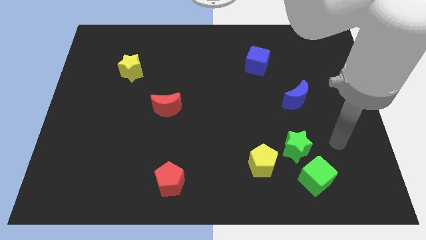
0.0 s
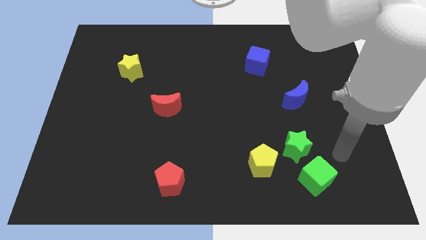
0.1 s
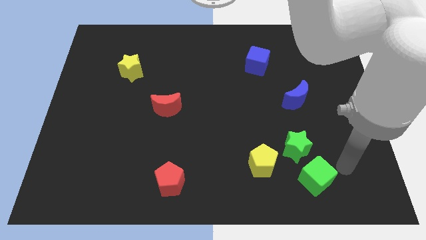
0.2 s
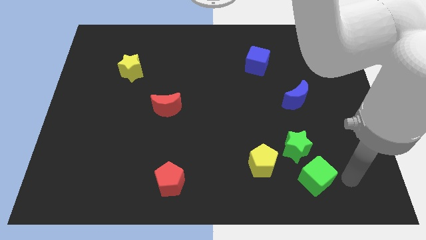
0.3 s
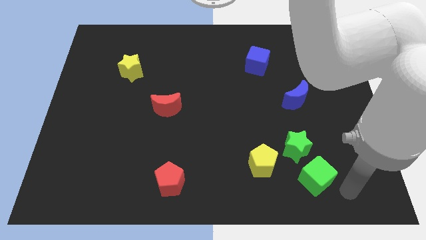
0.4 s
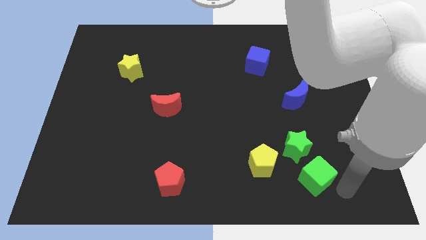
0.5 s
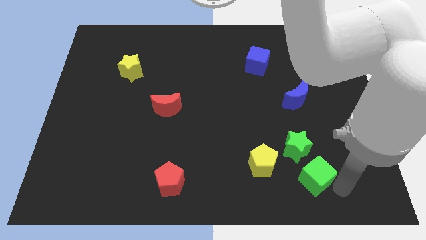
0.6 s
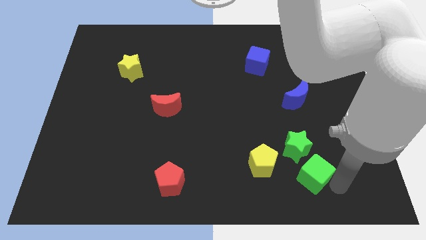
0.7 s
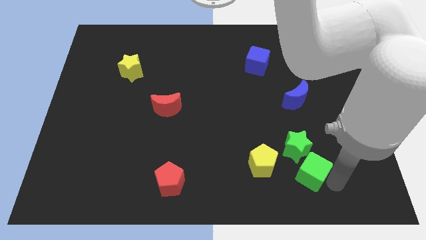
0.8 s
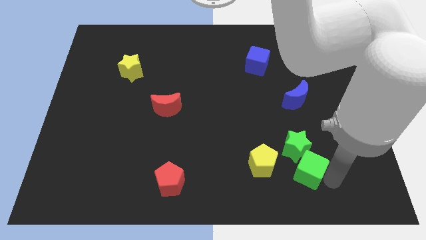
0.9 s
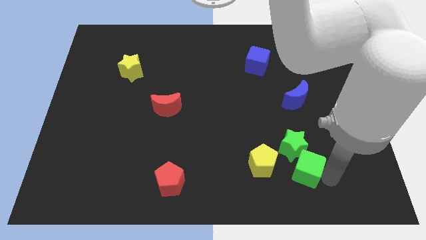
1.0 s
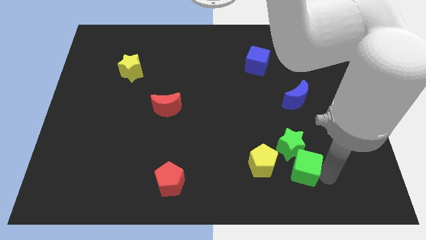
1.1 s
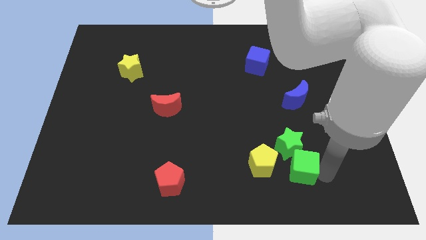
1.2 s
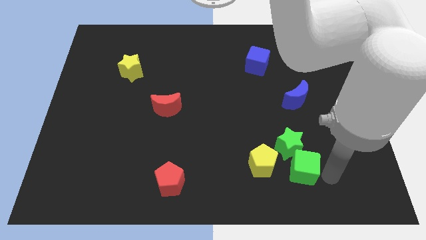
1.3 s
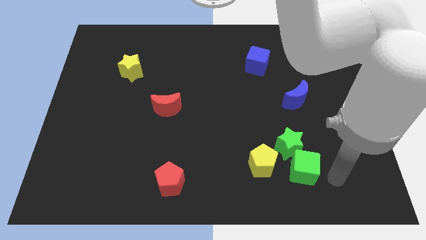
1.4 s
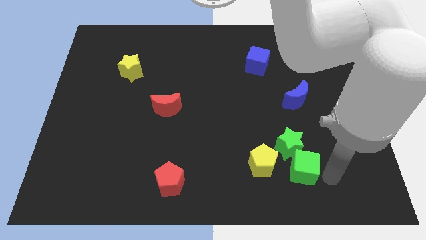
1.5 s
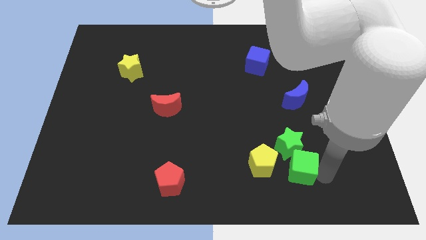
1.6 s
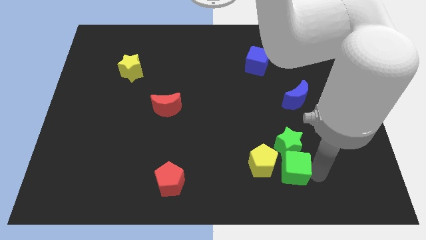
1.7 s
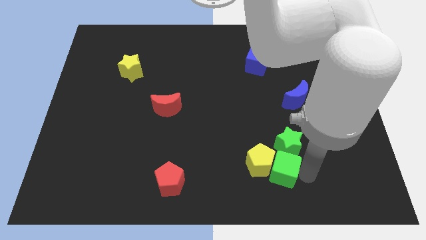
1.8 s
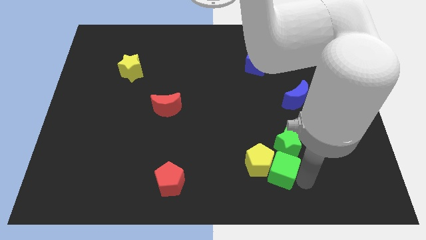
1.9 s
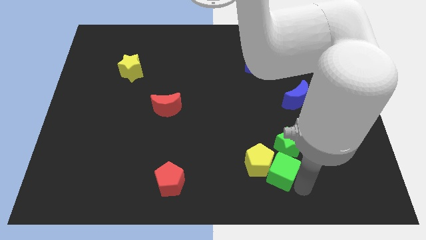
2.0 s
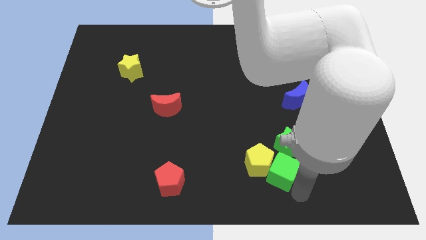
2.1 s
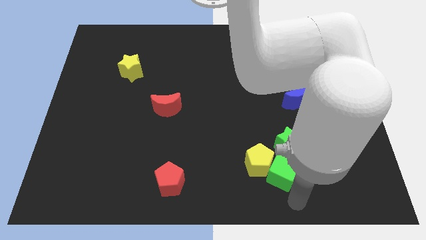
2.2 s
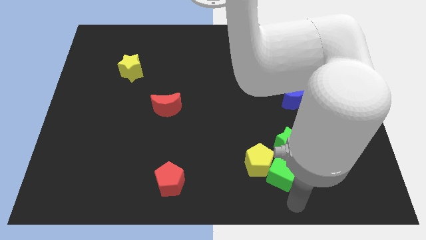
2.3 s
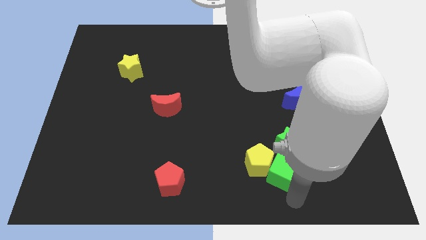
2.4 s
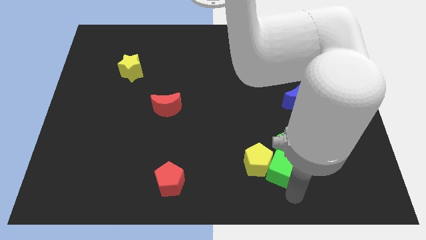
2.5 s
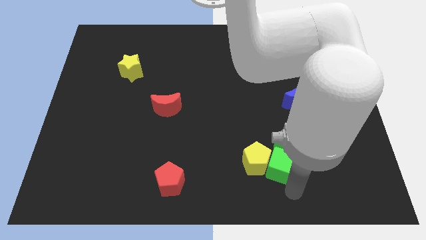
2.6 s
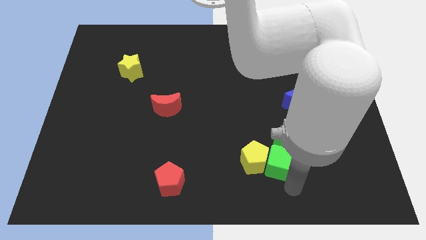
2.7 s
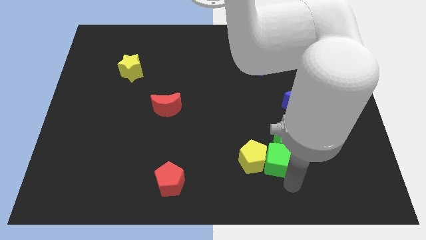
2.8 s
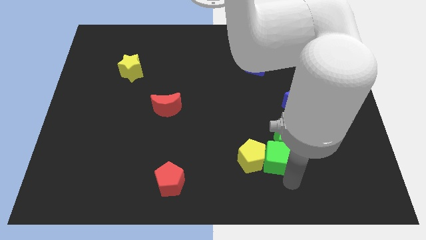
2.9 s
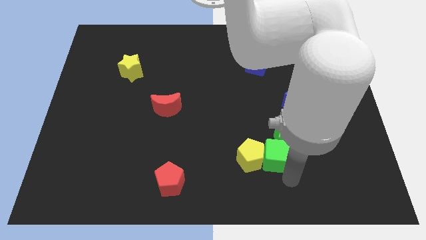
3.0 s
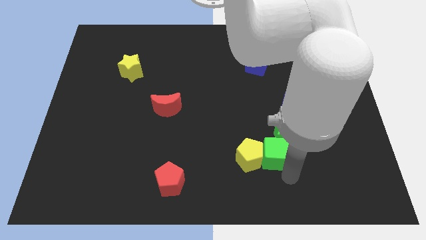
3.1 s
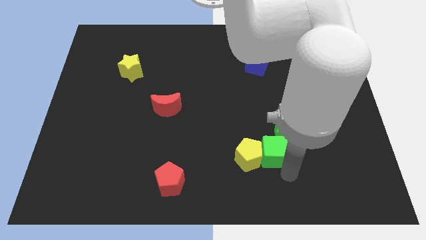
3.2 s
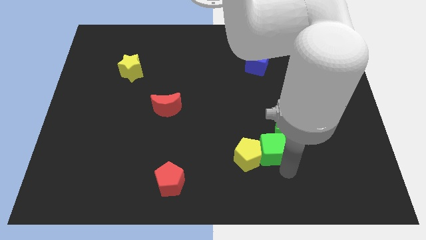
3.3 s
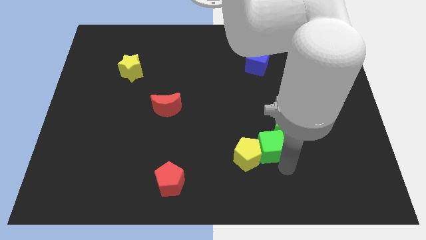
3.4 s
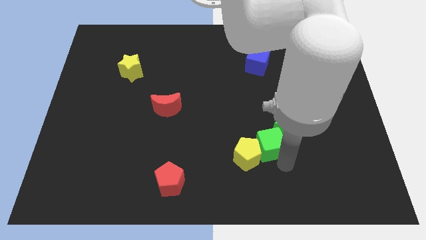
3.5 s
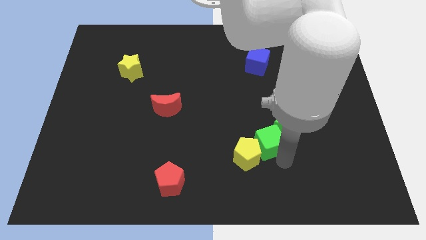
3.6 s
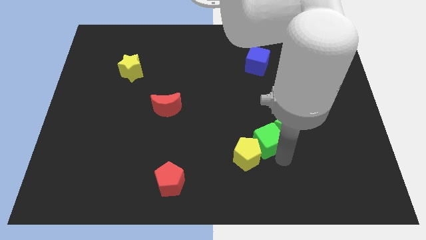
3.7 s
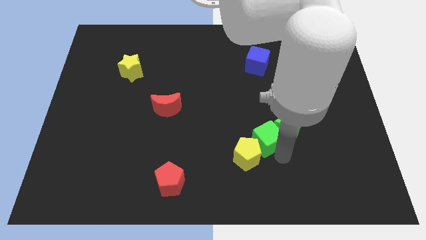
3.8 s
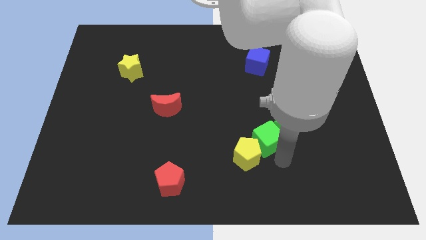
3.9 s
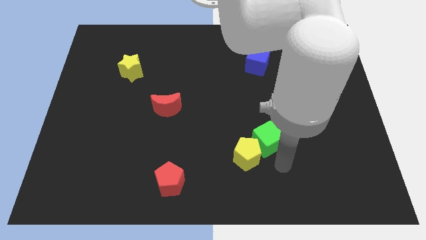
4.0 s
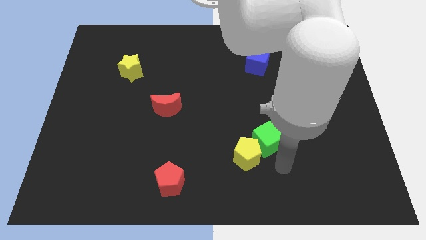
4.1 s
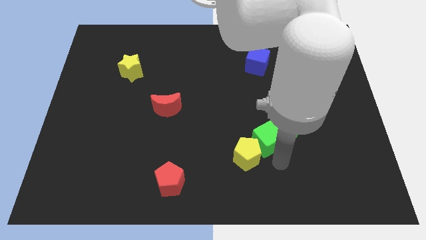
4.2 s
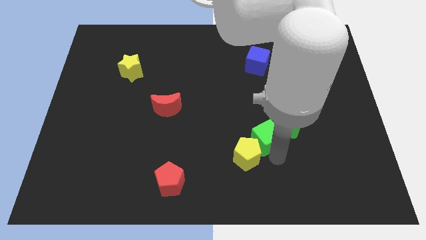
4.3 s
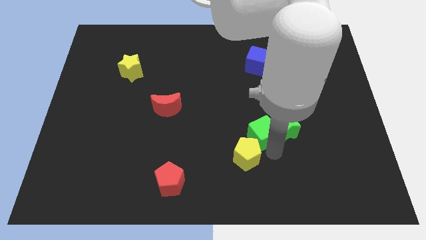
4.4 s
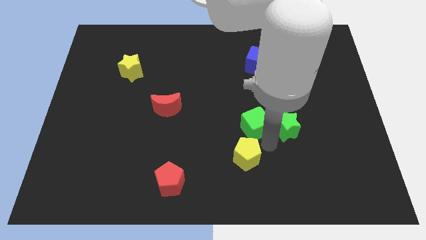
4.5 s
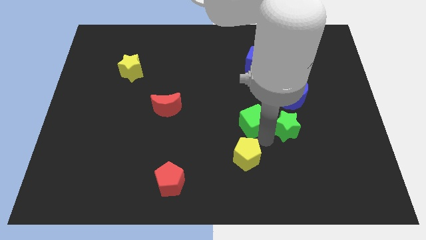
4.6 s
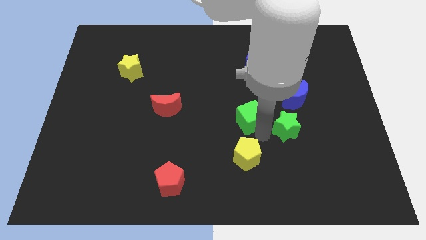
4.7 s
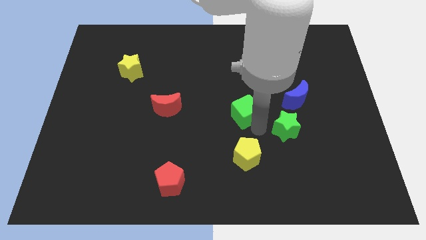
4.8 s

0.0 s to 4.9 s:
push the green cube upwards and left diagonally

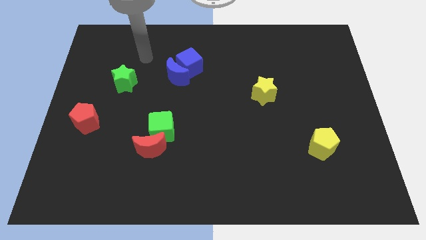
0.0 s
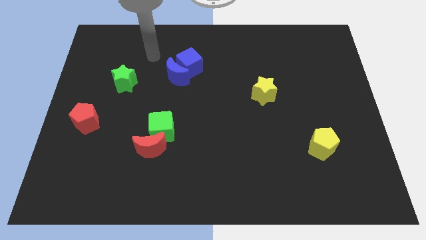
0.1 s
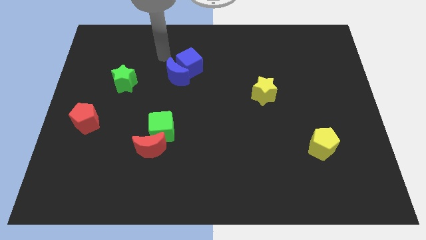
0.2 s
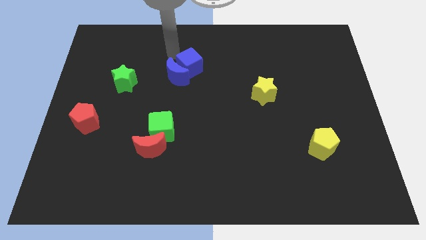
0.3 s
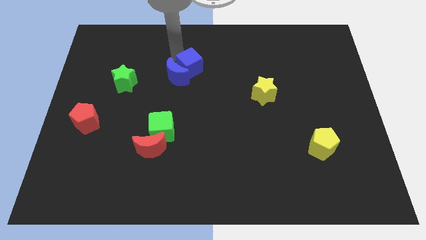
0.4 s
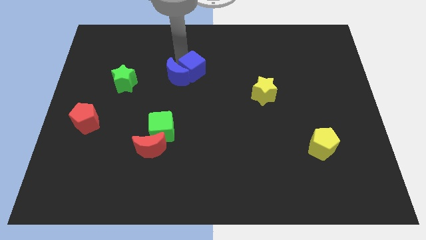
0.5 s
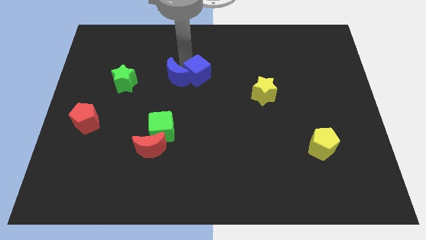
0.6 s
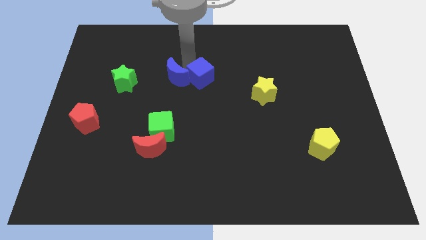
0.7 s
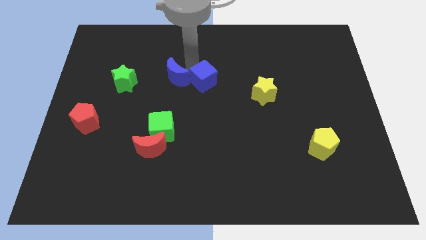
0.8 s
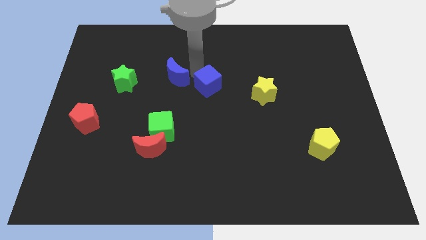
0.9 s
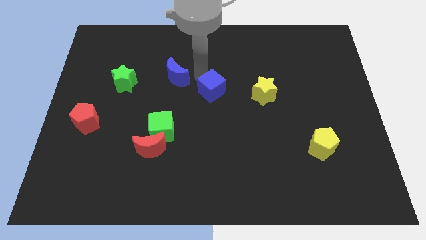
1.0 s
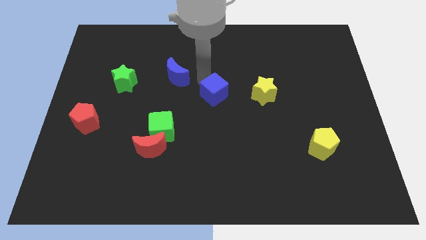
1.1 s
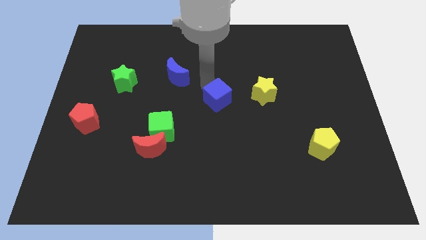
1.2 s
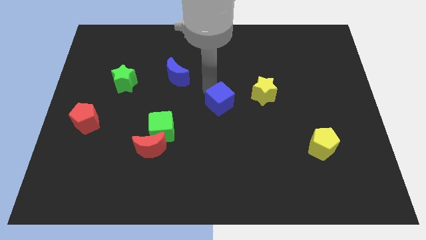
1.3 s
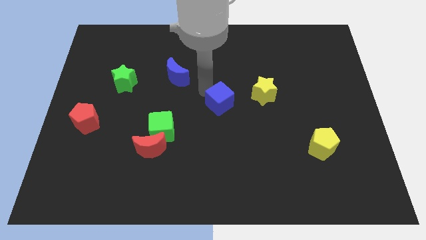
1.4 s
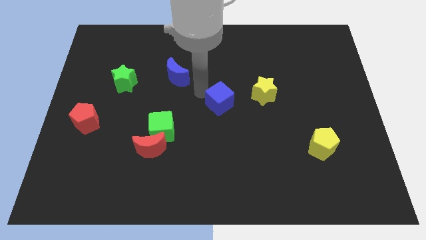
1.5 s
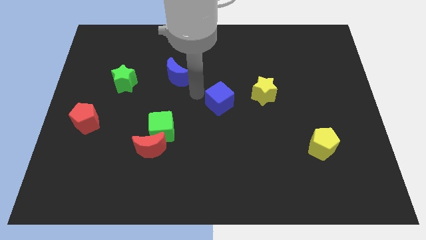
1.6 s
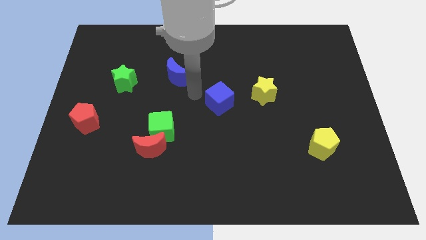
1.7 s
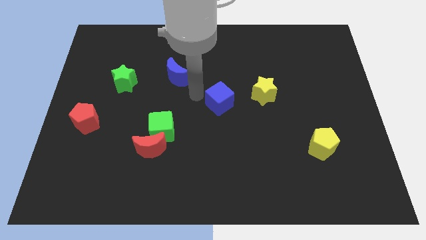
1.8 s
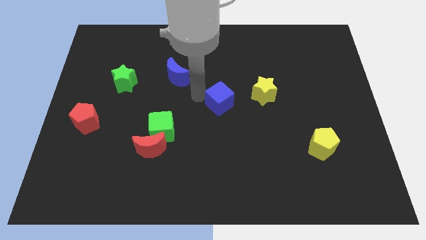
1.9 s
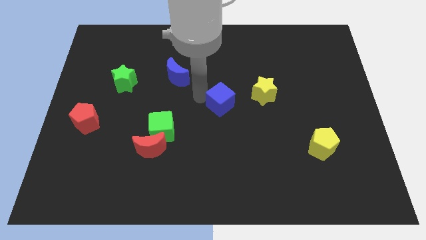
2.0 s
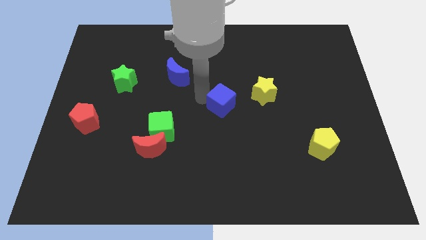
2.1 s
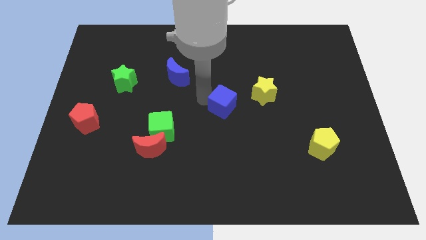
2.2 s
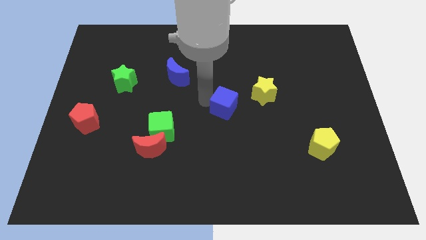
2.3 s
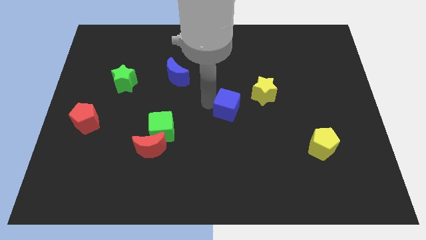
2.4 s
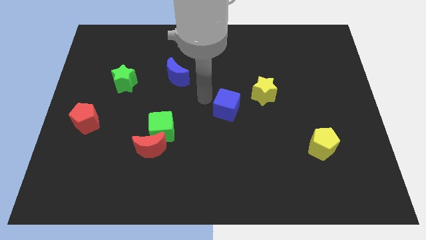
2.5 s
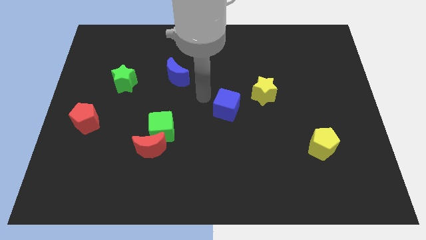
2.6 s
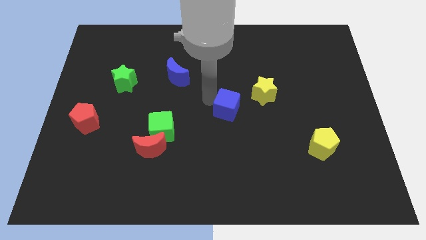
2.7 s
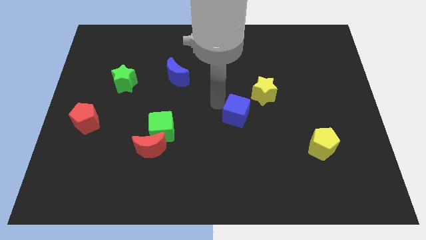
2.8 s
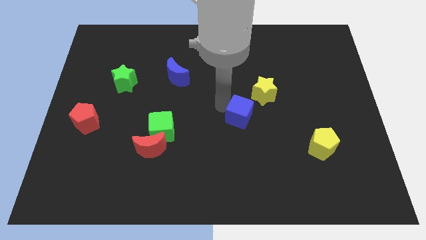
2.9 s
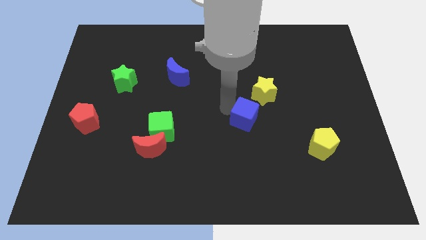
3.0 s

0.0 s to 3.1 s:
slide the blue cube down and then to the right
